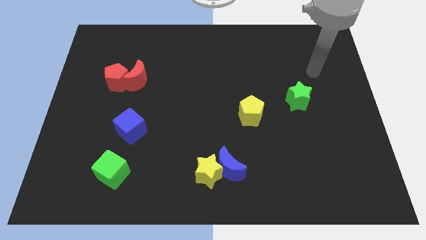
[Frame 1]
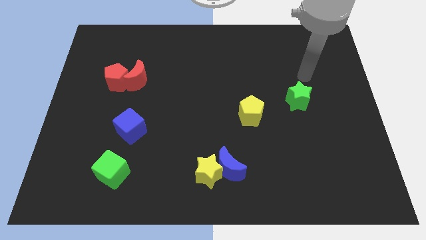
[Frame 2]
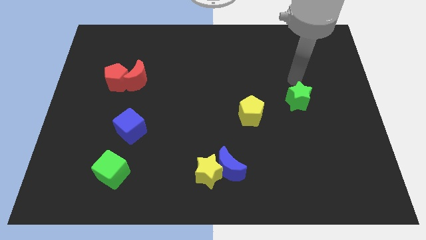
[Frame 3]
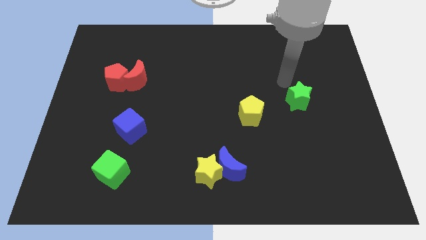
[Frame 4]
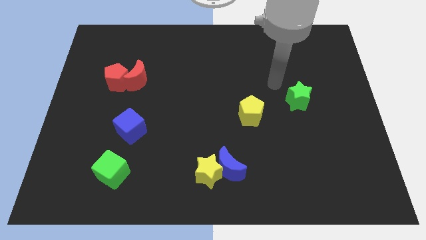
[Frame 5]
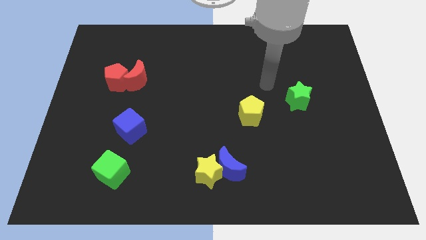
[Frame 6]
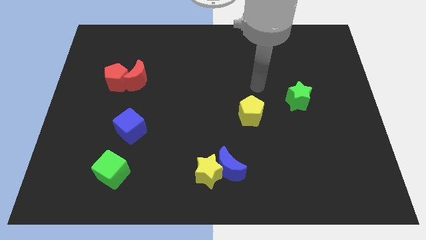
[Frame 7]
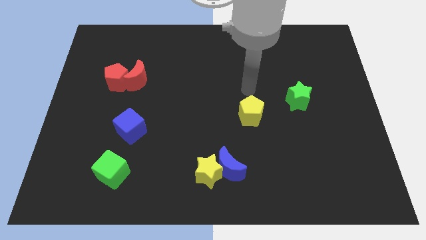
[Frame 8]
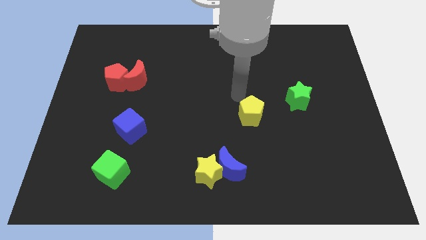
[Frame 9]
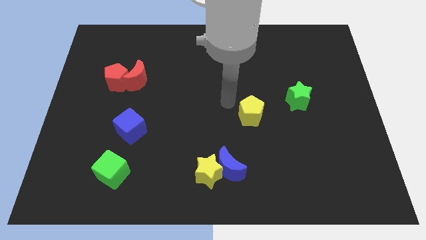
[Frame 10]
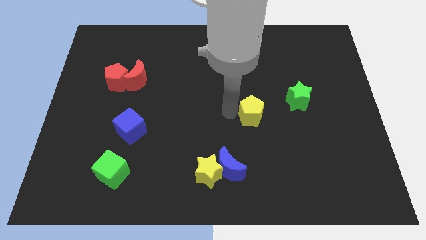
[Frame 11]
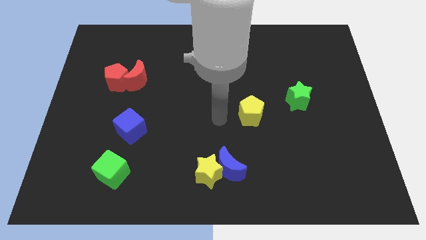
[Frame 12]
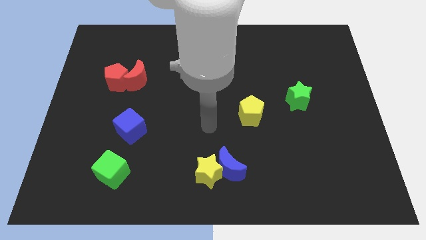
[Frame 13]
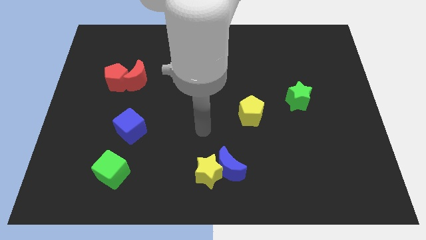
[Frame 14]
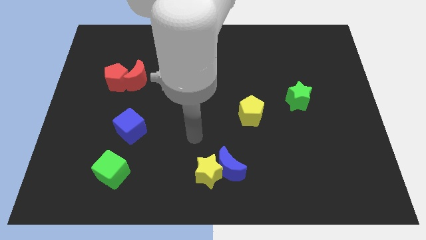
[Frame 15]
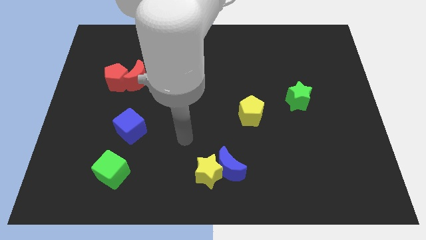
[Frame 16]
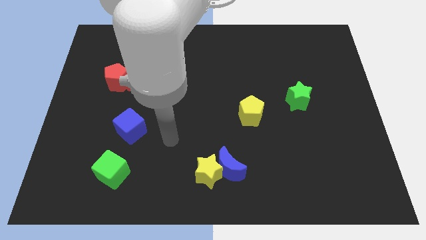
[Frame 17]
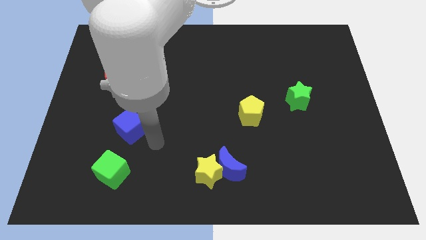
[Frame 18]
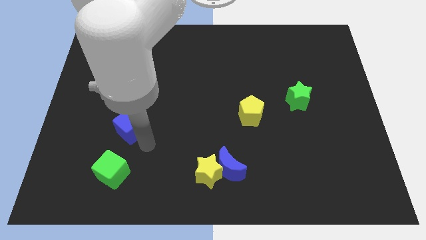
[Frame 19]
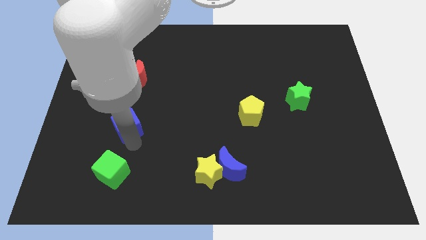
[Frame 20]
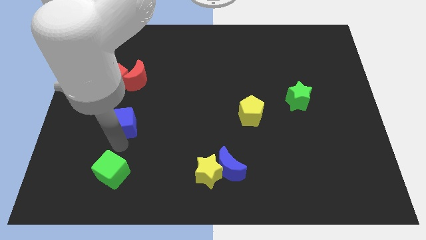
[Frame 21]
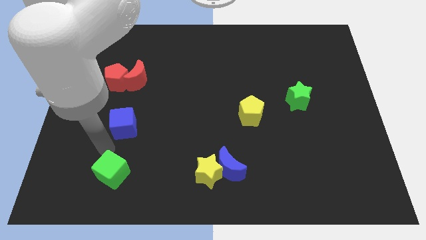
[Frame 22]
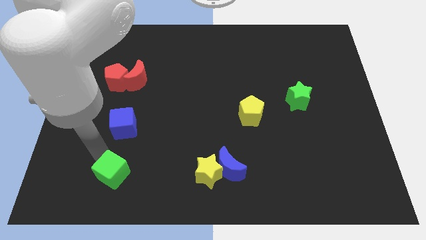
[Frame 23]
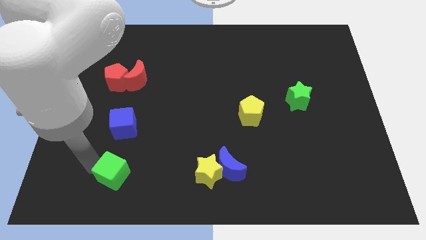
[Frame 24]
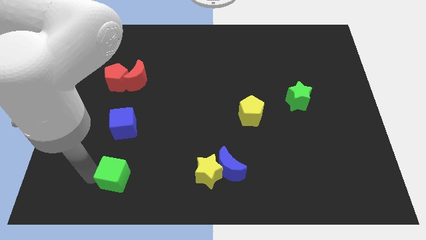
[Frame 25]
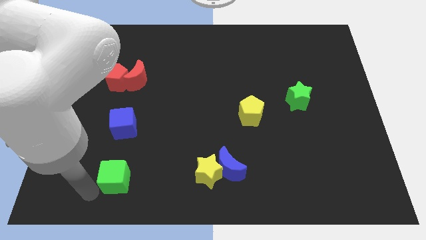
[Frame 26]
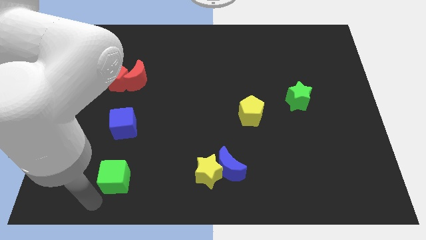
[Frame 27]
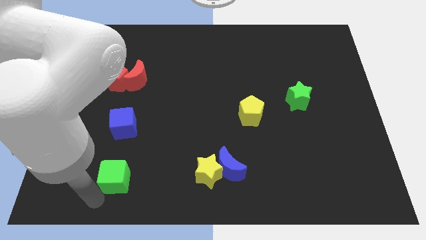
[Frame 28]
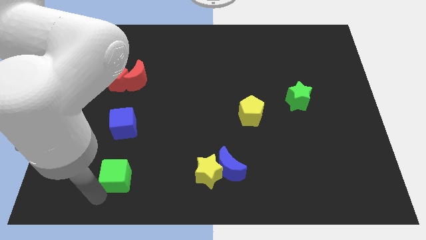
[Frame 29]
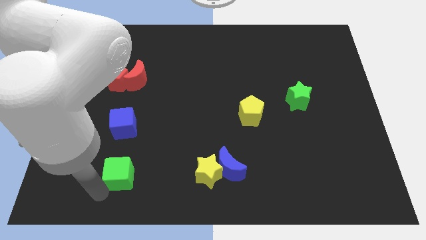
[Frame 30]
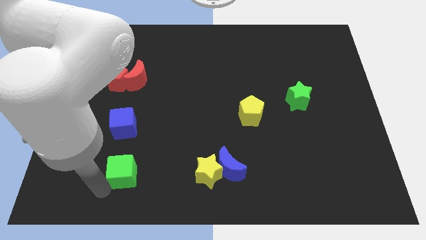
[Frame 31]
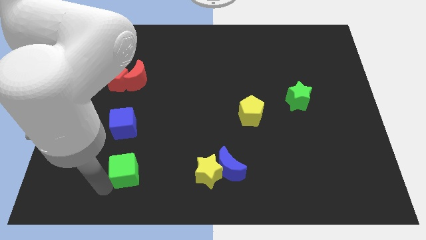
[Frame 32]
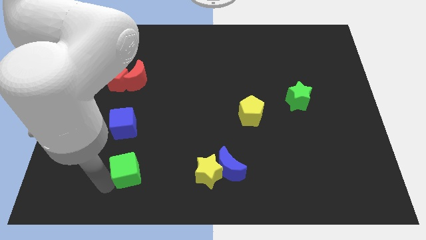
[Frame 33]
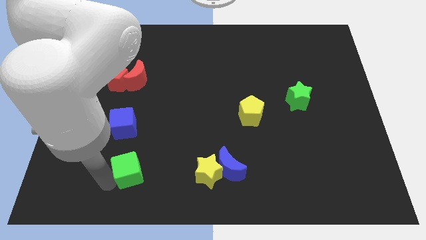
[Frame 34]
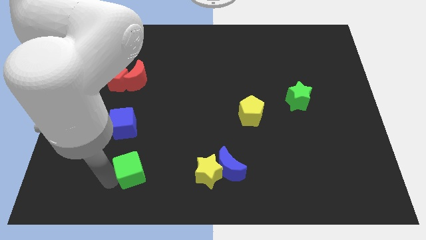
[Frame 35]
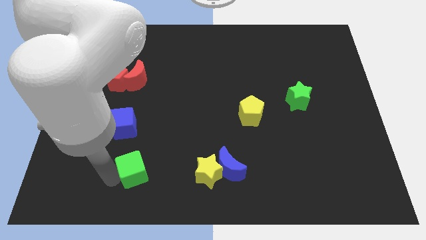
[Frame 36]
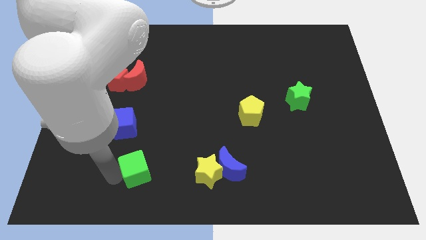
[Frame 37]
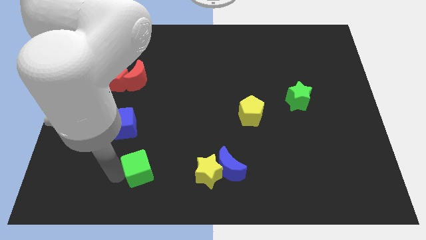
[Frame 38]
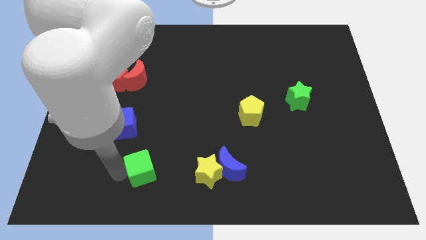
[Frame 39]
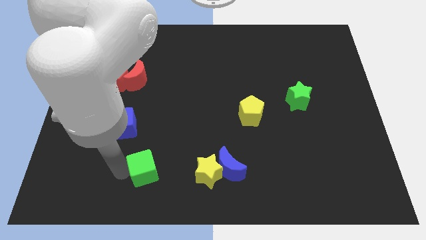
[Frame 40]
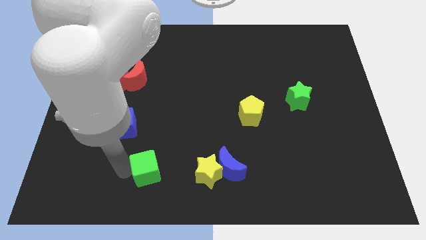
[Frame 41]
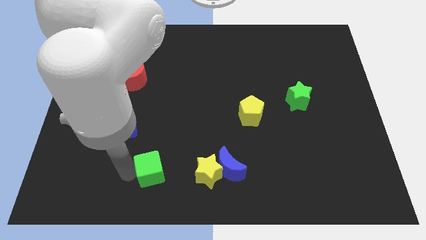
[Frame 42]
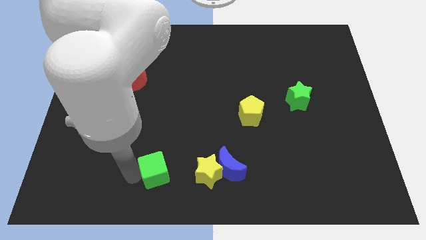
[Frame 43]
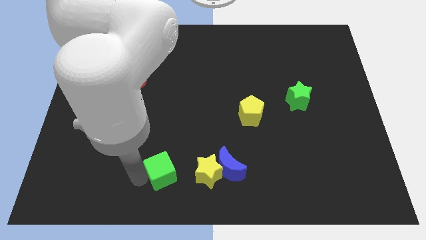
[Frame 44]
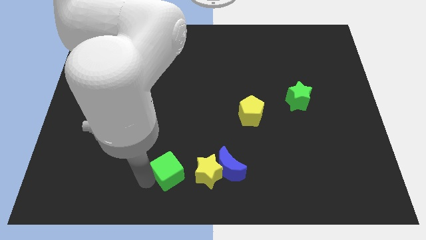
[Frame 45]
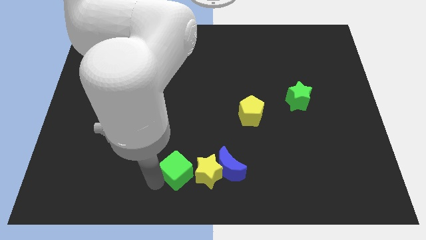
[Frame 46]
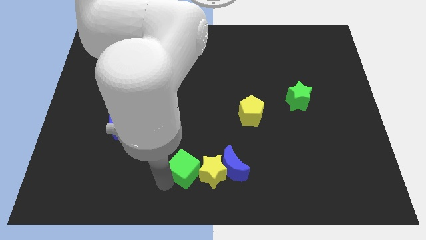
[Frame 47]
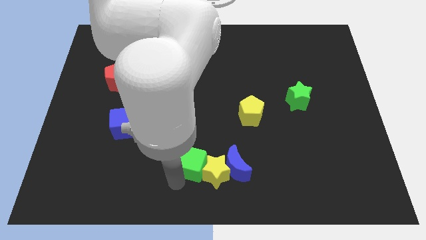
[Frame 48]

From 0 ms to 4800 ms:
slightly slide the green cube diagonally upwards and to the right

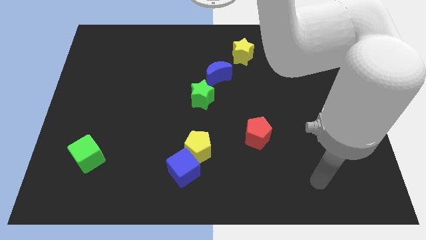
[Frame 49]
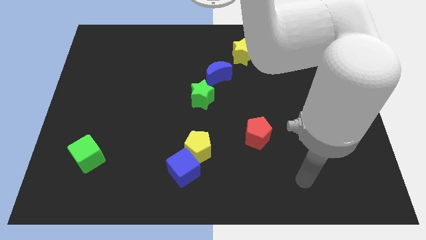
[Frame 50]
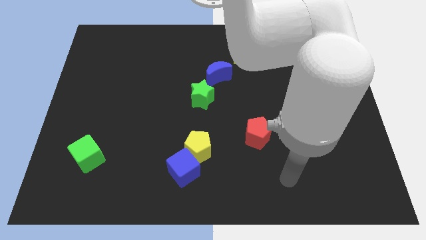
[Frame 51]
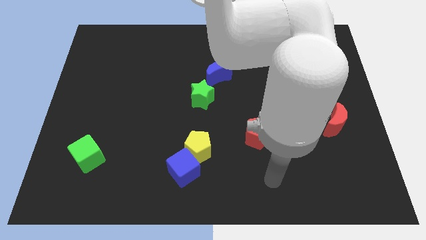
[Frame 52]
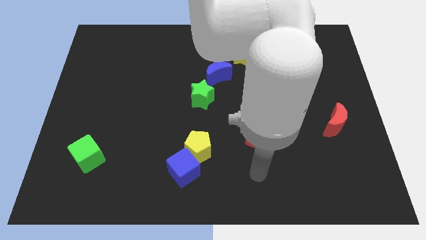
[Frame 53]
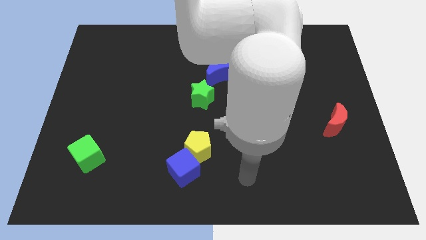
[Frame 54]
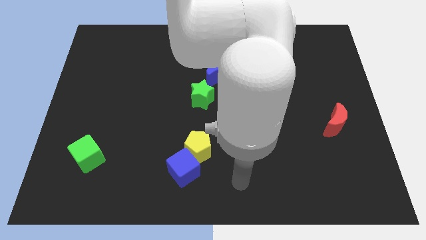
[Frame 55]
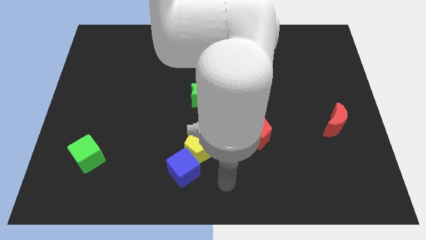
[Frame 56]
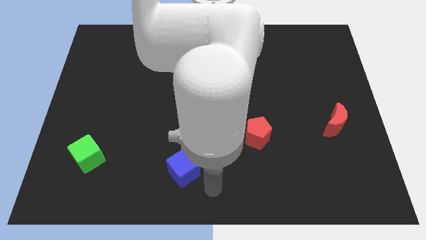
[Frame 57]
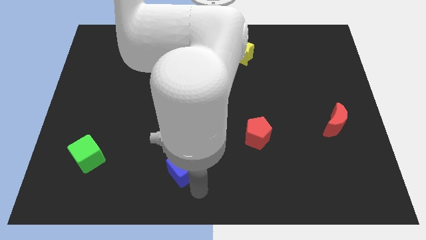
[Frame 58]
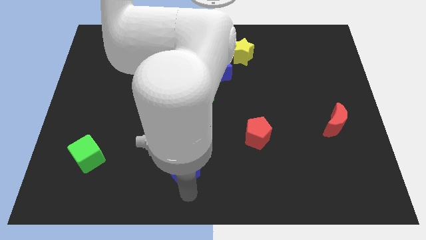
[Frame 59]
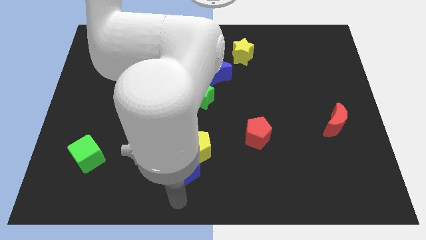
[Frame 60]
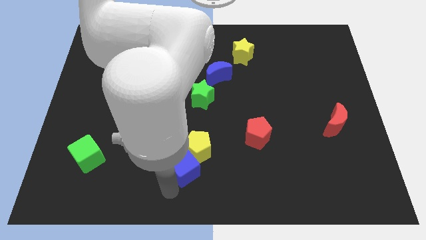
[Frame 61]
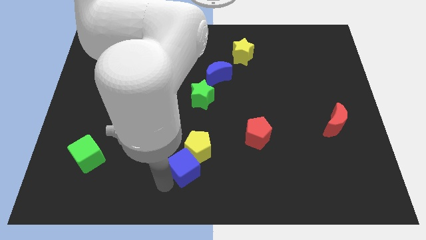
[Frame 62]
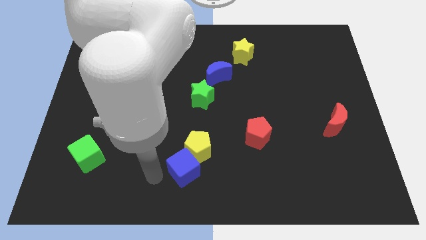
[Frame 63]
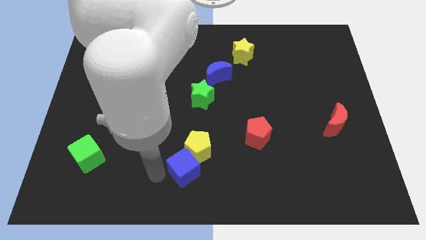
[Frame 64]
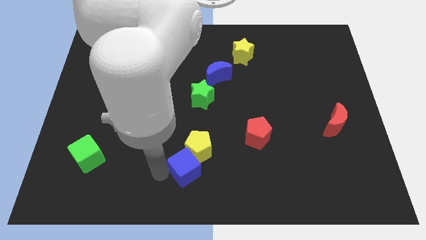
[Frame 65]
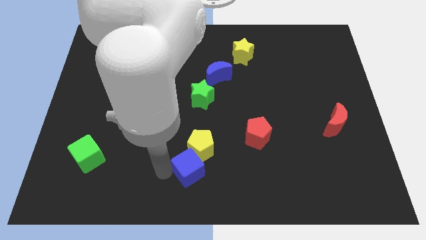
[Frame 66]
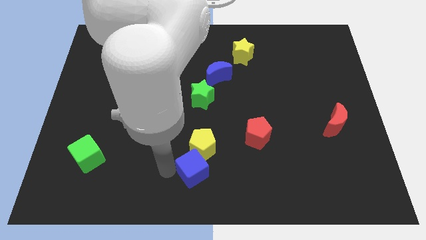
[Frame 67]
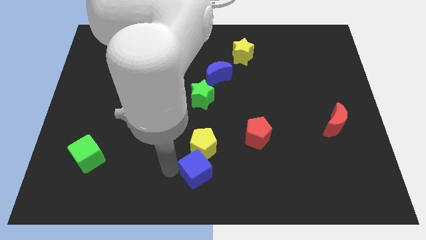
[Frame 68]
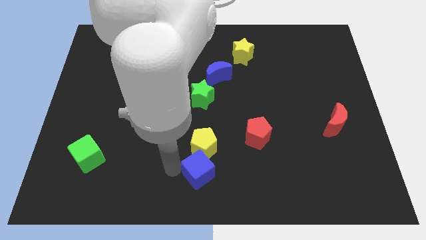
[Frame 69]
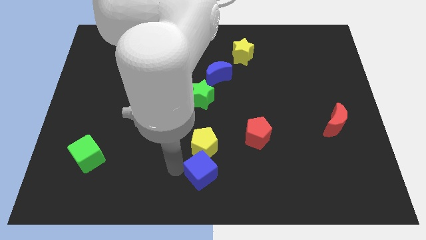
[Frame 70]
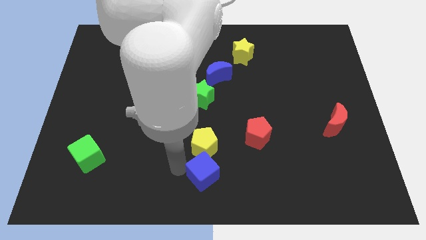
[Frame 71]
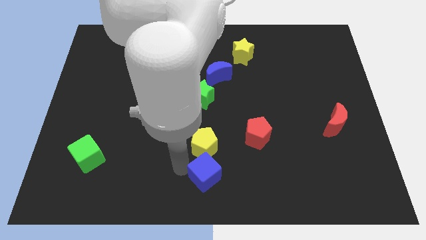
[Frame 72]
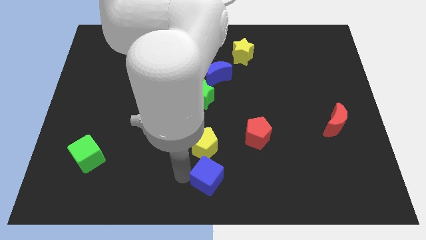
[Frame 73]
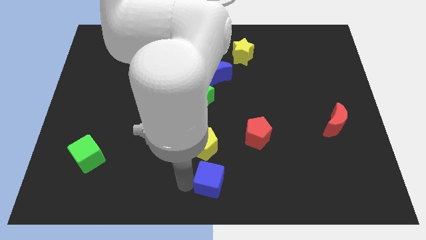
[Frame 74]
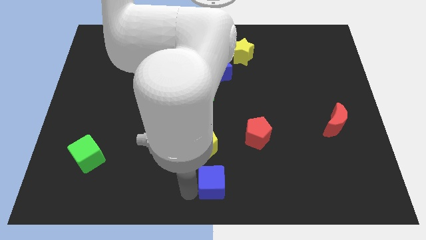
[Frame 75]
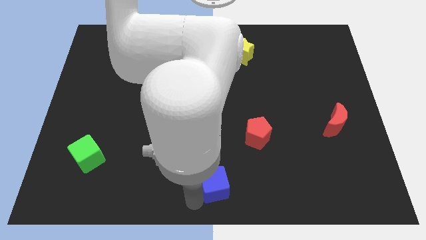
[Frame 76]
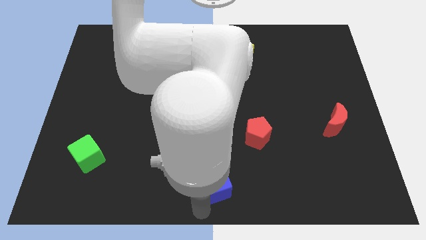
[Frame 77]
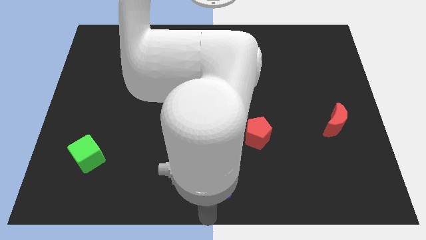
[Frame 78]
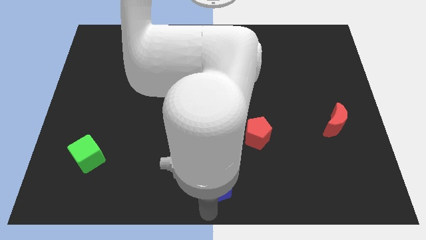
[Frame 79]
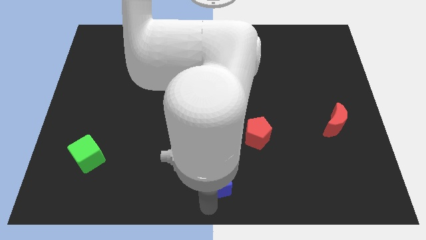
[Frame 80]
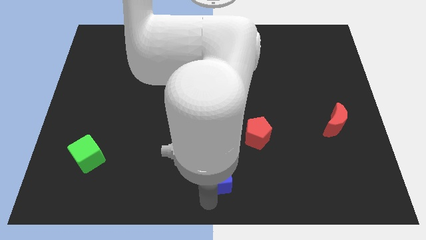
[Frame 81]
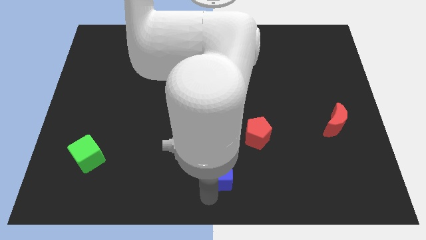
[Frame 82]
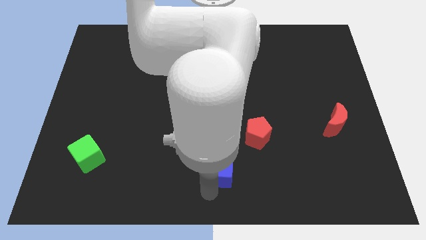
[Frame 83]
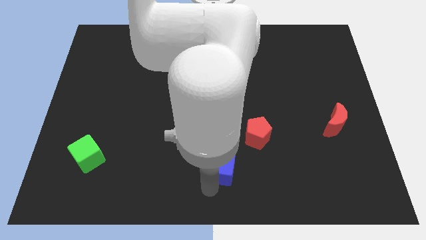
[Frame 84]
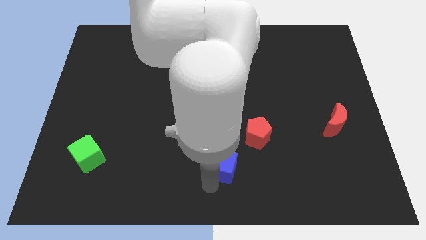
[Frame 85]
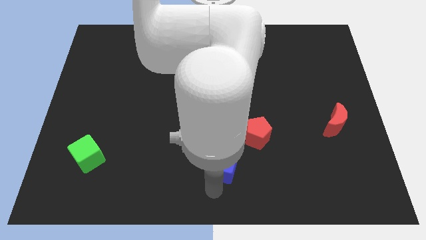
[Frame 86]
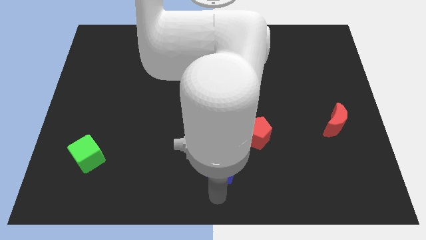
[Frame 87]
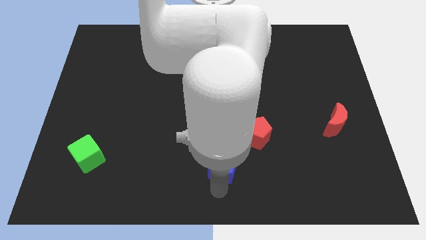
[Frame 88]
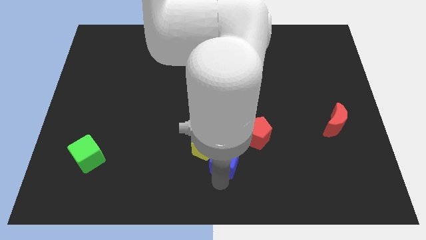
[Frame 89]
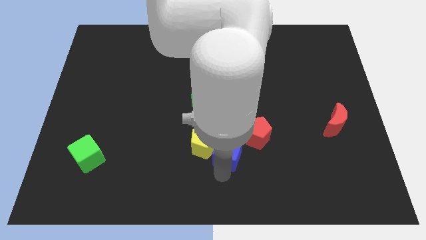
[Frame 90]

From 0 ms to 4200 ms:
slide the blue cube a little diagonally up and to the right
